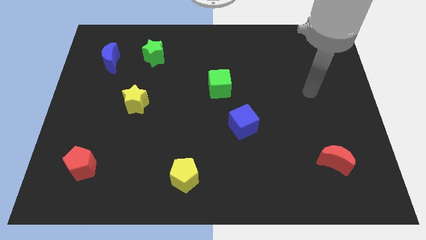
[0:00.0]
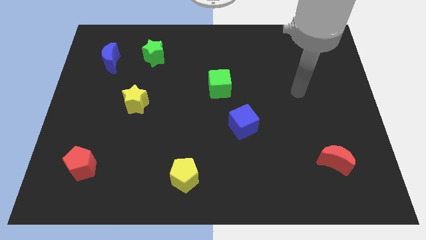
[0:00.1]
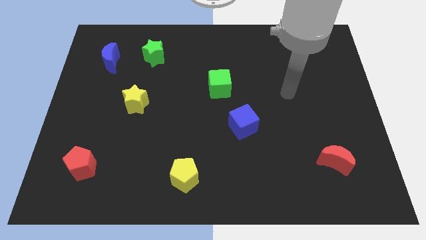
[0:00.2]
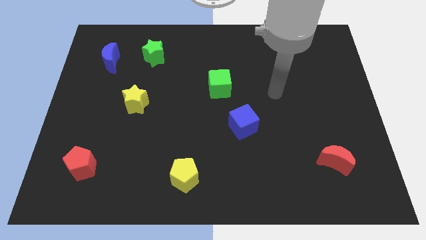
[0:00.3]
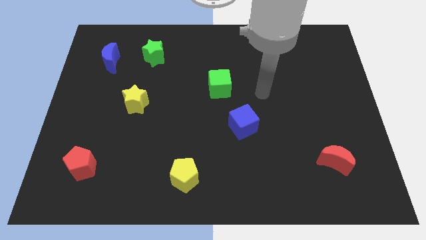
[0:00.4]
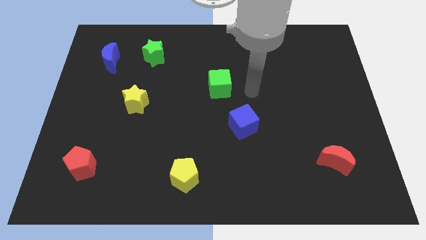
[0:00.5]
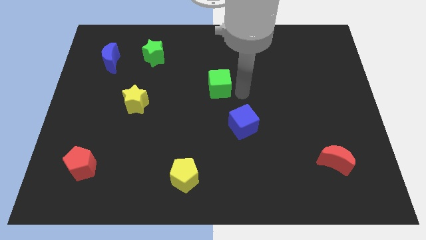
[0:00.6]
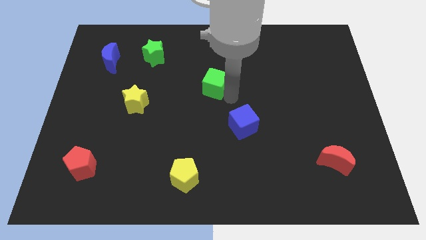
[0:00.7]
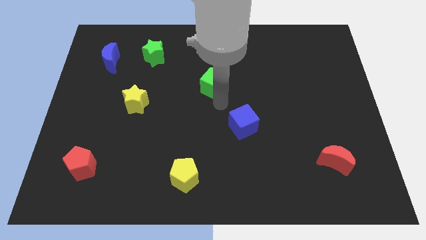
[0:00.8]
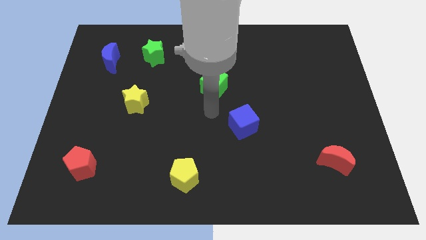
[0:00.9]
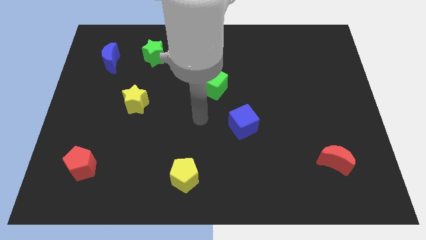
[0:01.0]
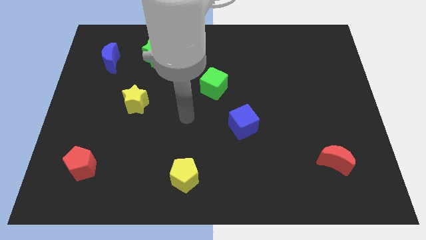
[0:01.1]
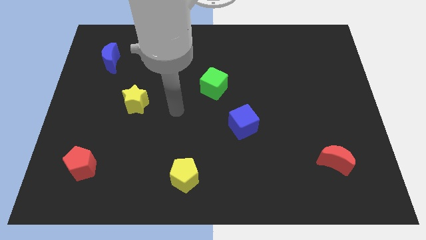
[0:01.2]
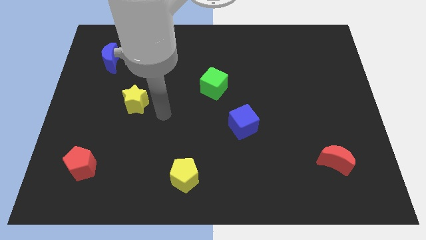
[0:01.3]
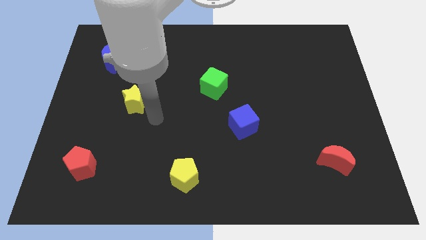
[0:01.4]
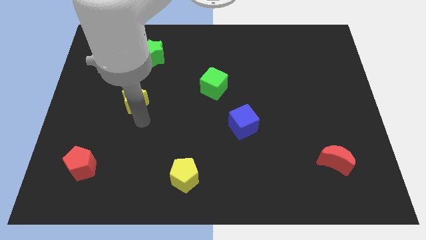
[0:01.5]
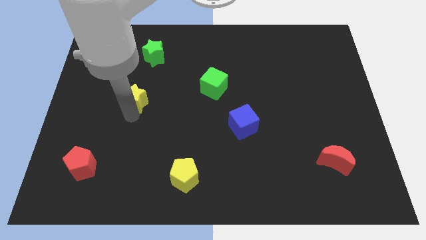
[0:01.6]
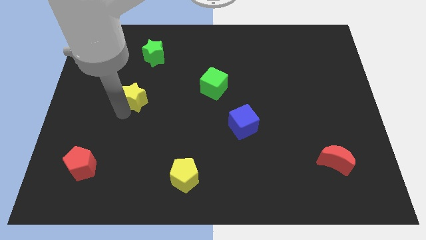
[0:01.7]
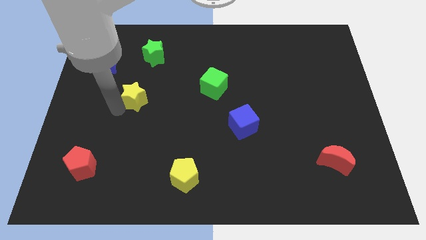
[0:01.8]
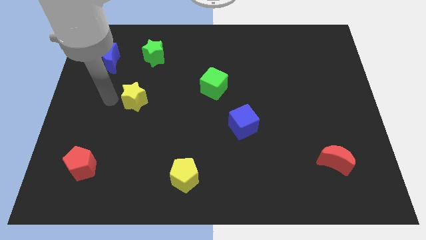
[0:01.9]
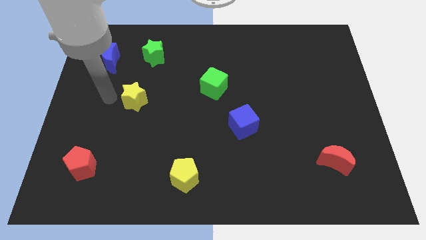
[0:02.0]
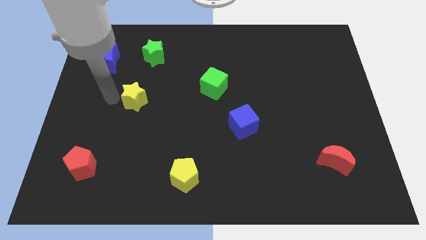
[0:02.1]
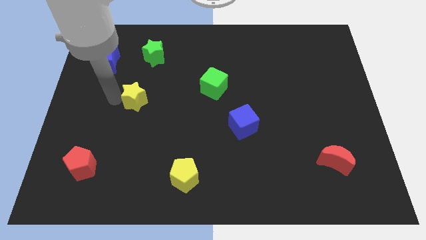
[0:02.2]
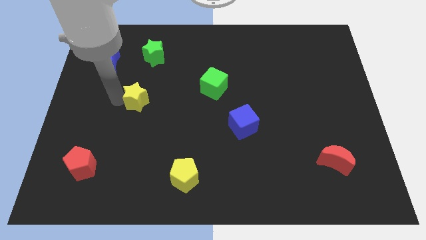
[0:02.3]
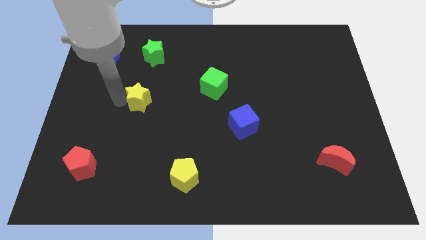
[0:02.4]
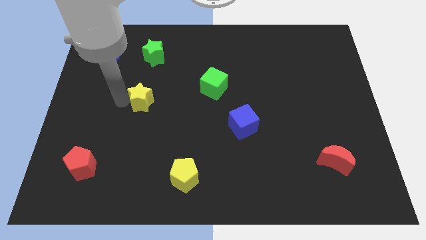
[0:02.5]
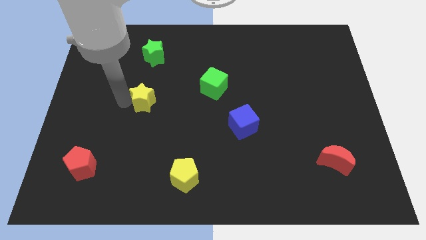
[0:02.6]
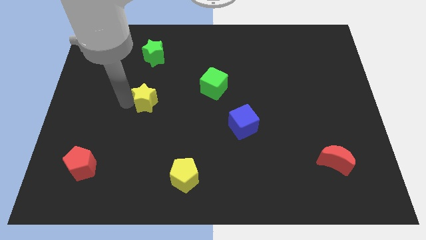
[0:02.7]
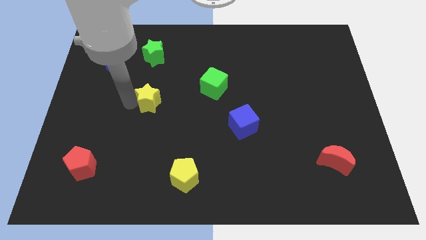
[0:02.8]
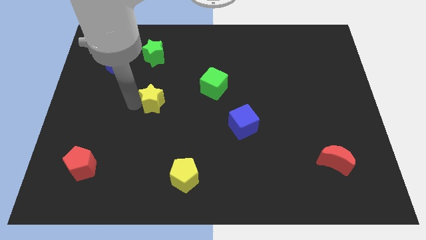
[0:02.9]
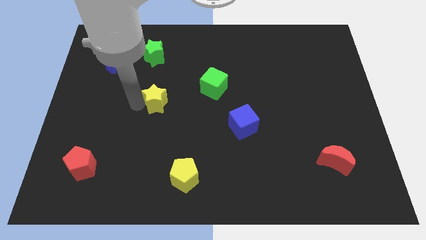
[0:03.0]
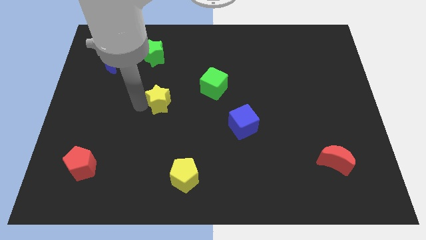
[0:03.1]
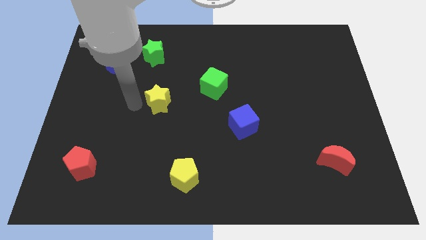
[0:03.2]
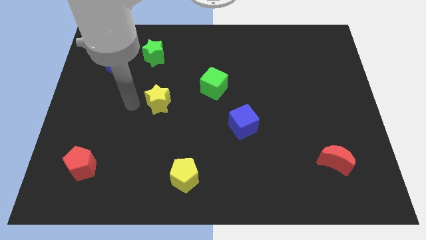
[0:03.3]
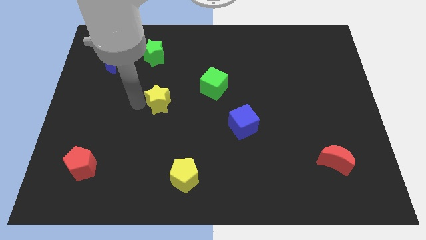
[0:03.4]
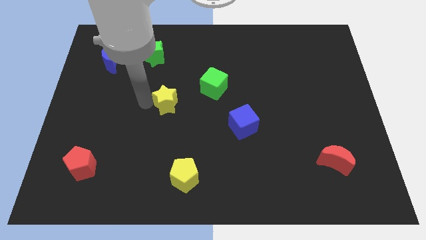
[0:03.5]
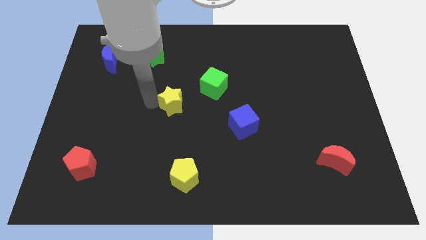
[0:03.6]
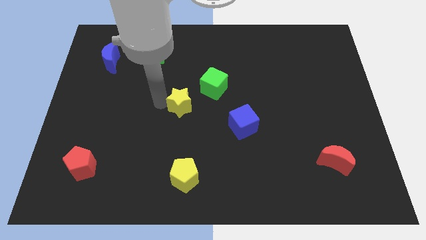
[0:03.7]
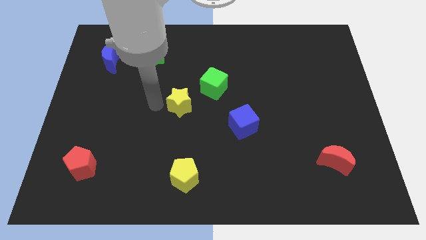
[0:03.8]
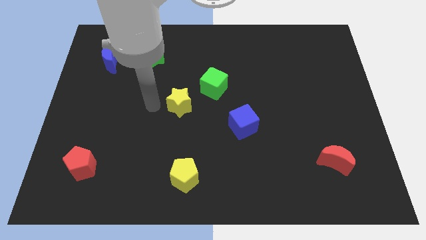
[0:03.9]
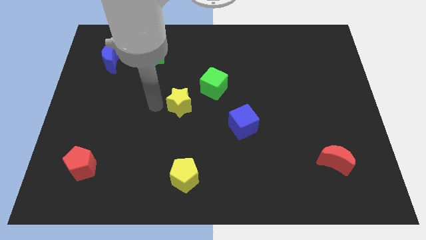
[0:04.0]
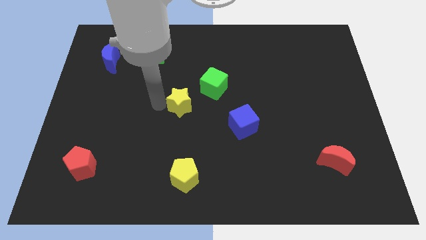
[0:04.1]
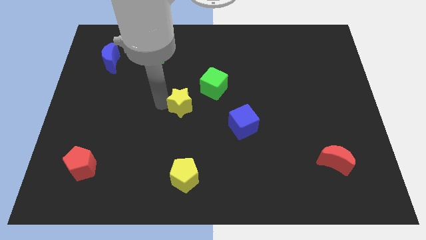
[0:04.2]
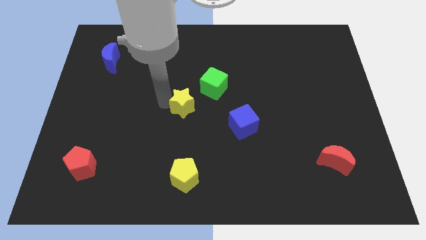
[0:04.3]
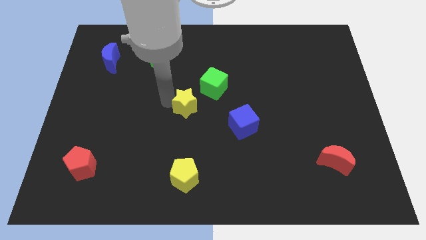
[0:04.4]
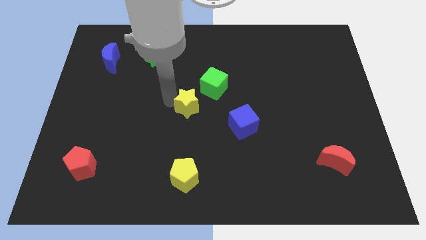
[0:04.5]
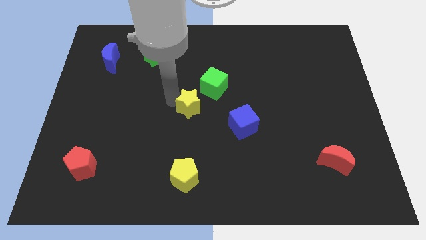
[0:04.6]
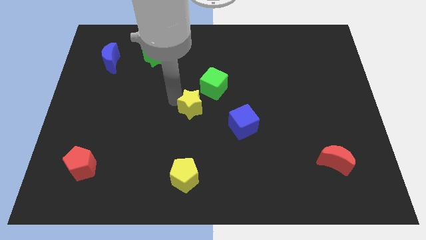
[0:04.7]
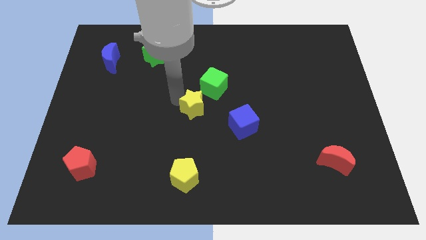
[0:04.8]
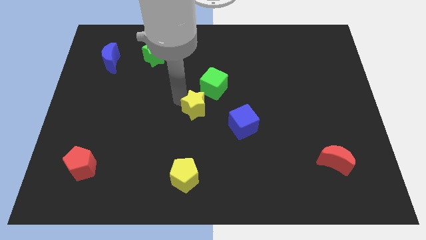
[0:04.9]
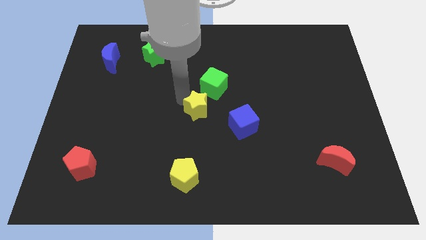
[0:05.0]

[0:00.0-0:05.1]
move the yellow star diagonally up and to the left of the blue cube

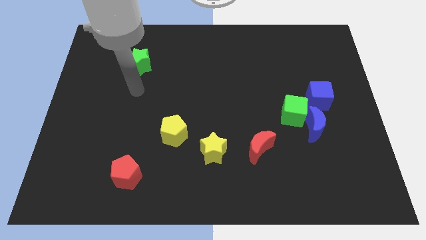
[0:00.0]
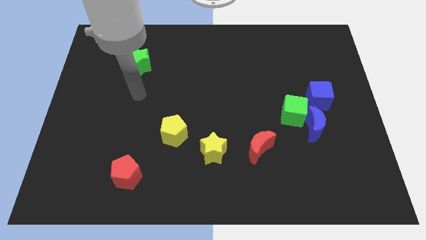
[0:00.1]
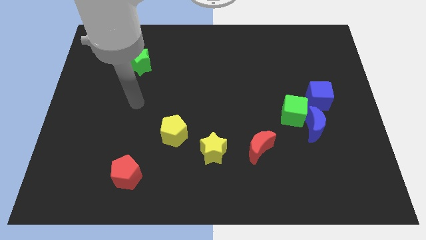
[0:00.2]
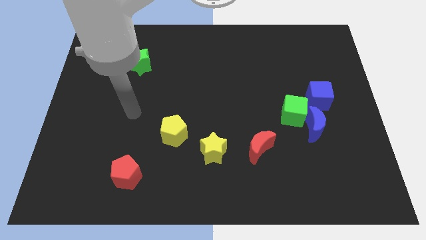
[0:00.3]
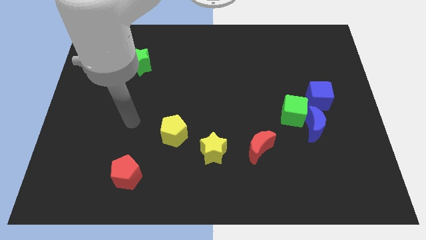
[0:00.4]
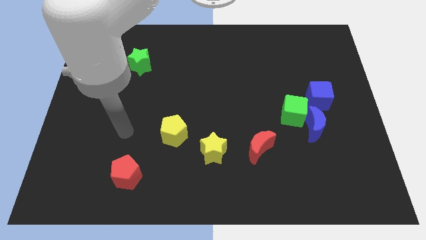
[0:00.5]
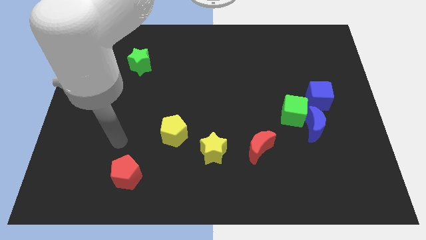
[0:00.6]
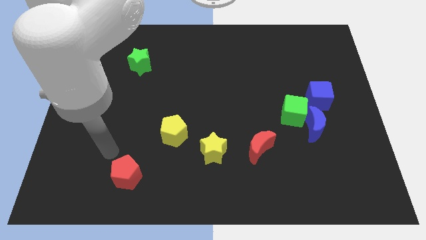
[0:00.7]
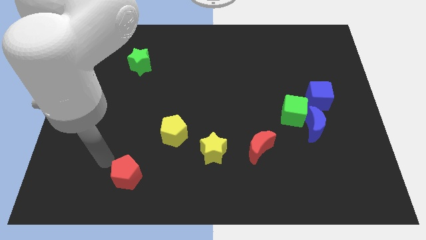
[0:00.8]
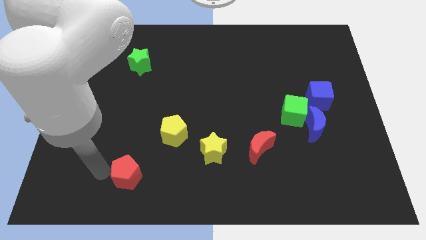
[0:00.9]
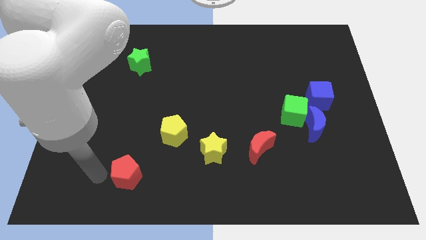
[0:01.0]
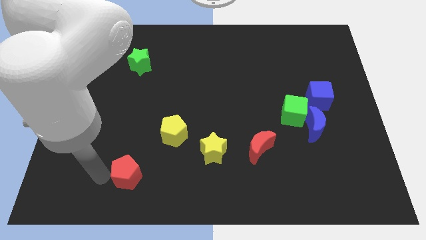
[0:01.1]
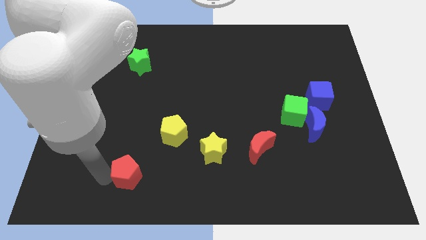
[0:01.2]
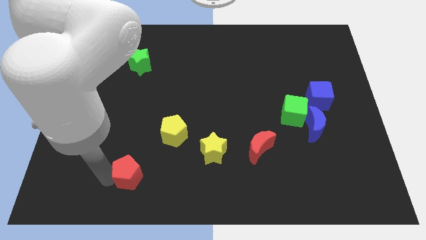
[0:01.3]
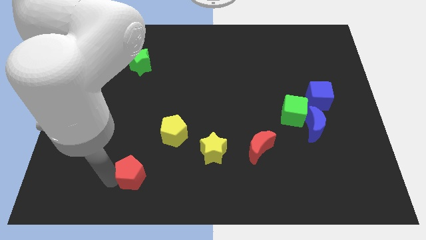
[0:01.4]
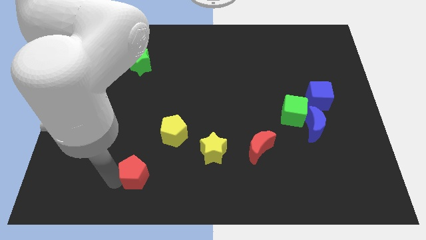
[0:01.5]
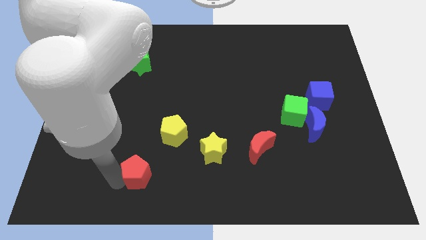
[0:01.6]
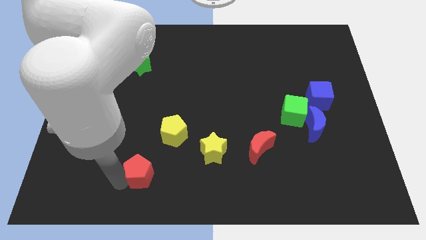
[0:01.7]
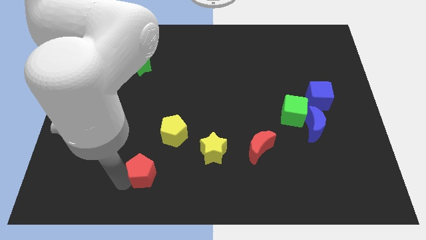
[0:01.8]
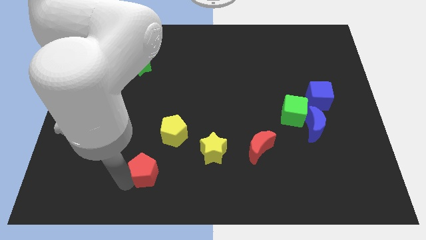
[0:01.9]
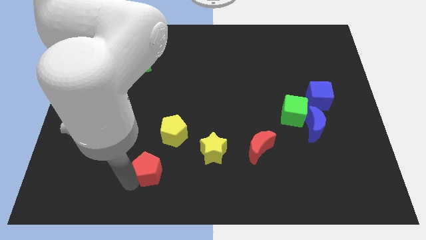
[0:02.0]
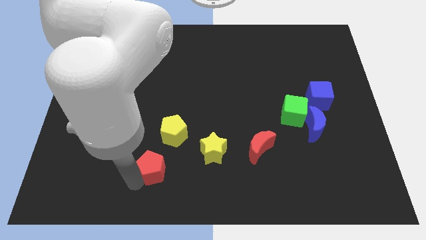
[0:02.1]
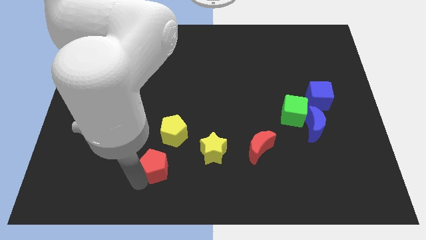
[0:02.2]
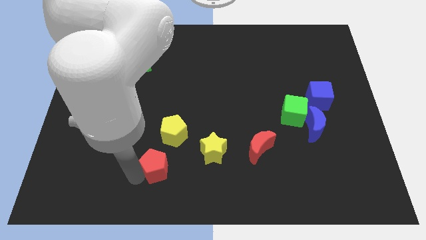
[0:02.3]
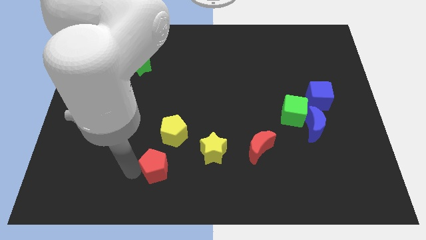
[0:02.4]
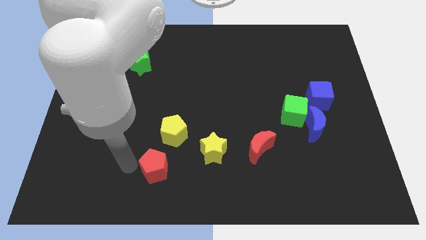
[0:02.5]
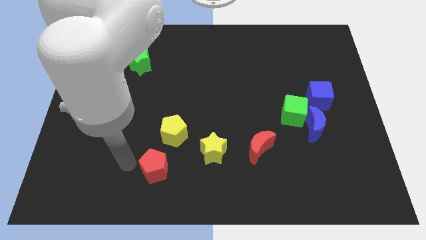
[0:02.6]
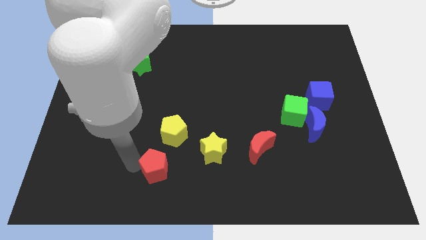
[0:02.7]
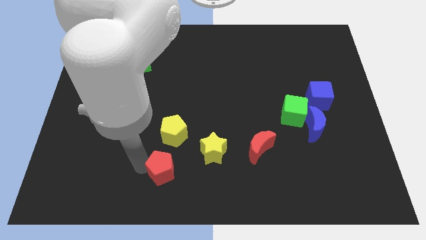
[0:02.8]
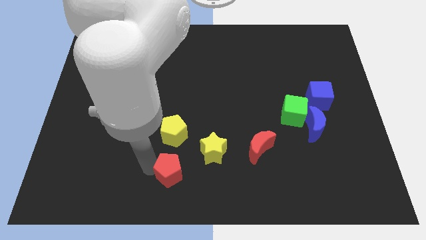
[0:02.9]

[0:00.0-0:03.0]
push the red pentagon to the bottom left side of the yellow star
